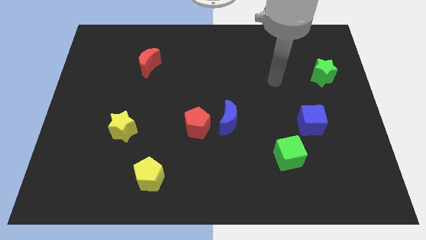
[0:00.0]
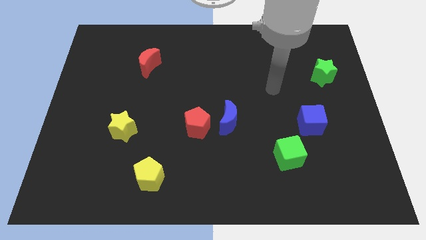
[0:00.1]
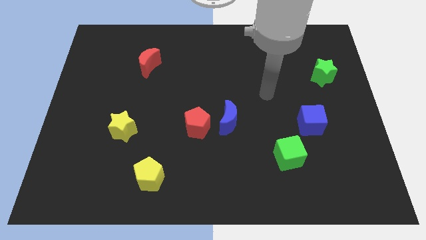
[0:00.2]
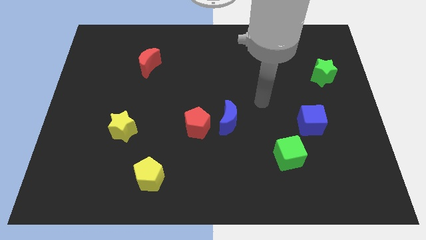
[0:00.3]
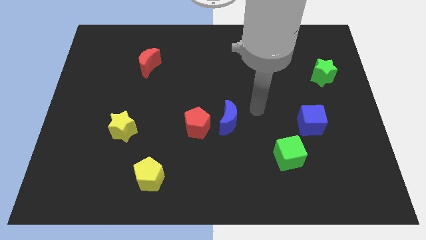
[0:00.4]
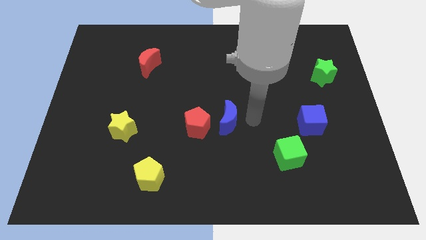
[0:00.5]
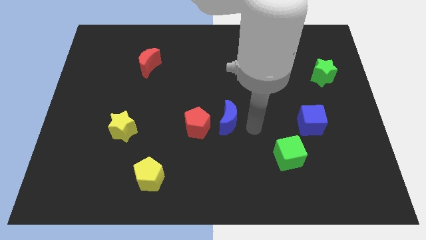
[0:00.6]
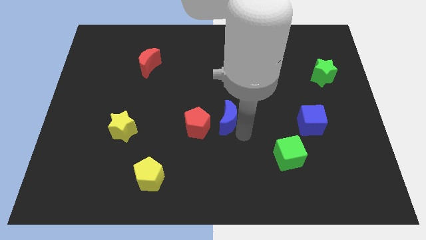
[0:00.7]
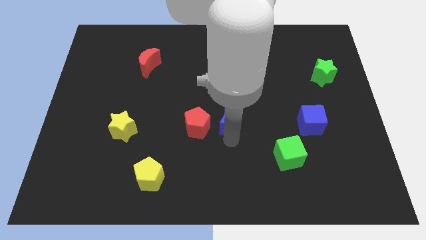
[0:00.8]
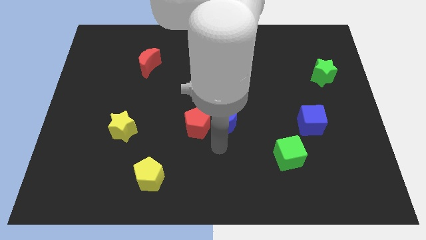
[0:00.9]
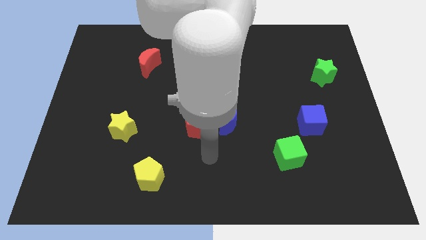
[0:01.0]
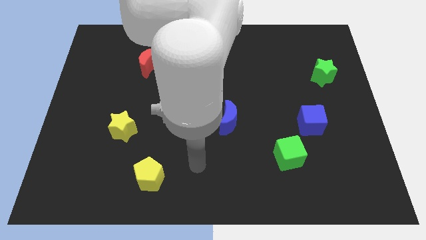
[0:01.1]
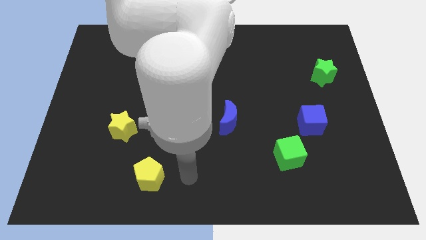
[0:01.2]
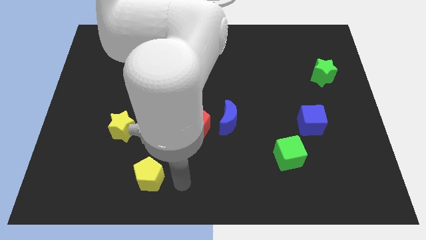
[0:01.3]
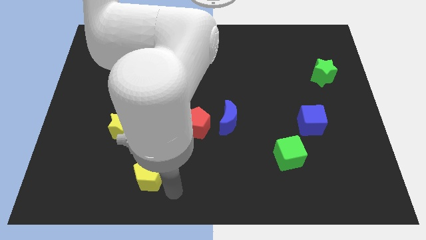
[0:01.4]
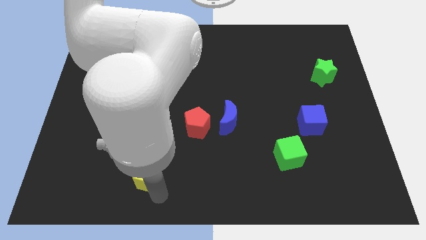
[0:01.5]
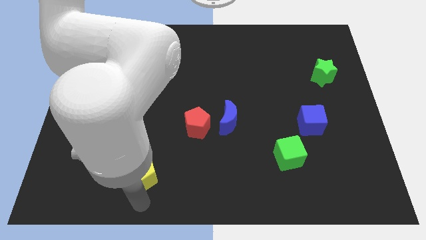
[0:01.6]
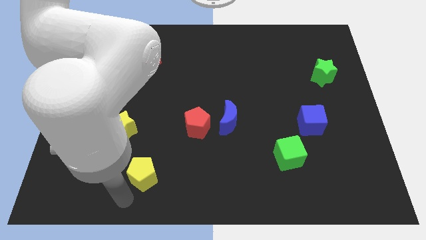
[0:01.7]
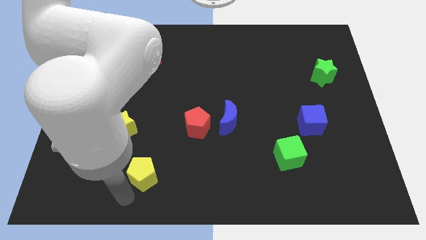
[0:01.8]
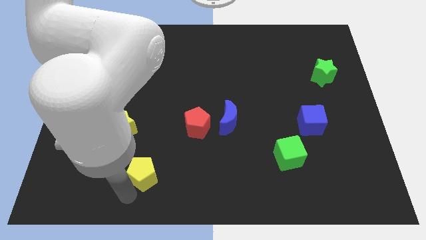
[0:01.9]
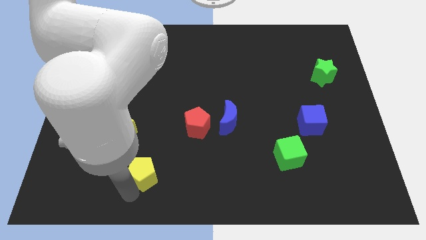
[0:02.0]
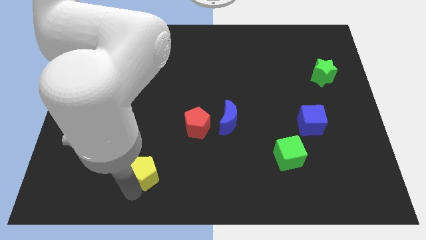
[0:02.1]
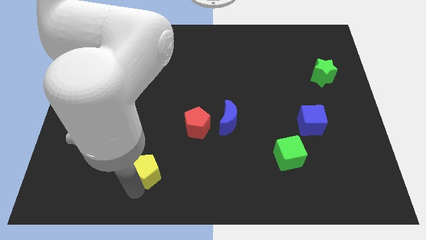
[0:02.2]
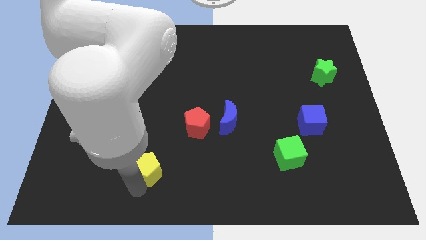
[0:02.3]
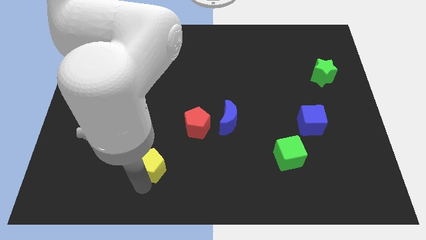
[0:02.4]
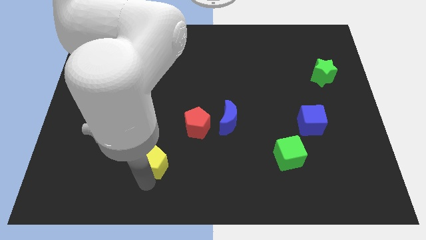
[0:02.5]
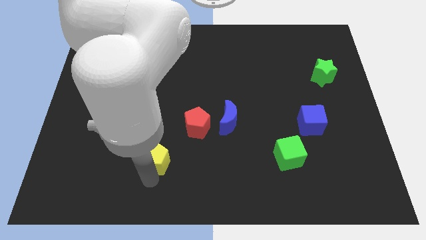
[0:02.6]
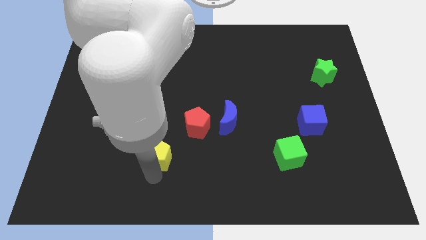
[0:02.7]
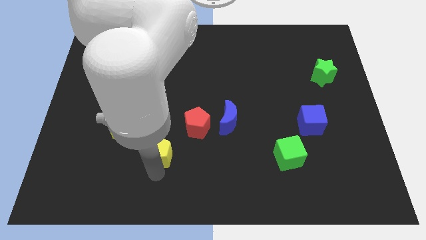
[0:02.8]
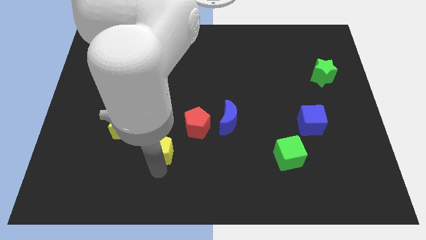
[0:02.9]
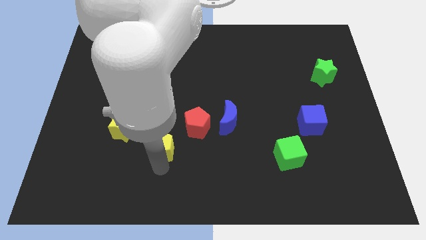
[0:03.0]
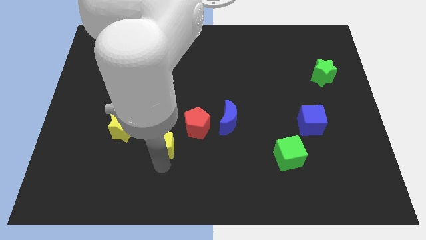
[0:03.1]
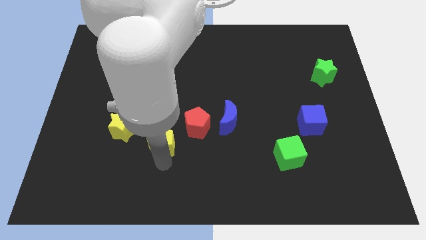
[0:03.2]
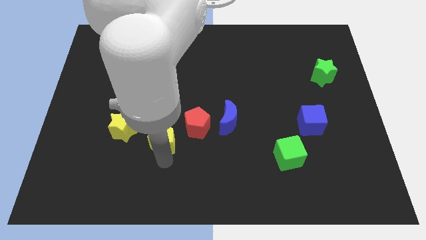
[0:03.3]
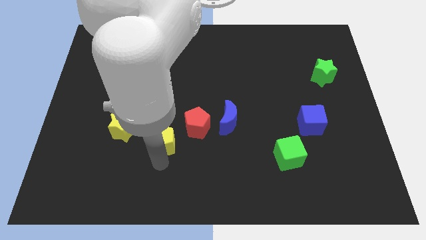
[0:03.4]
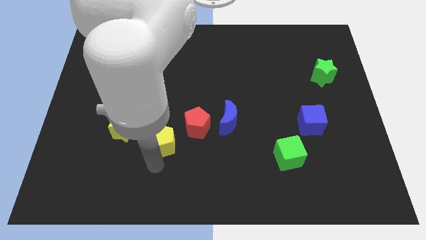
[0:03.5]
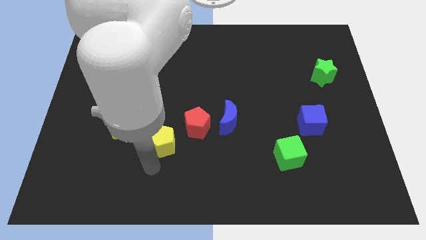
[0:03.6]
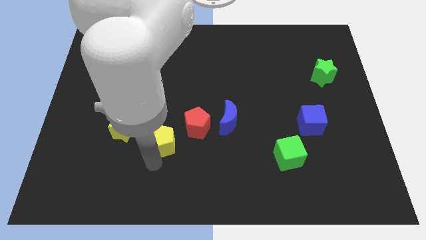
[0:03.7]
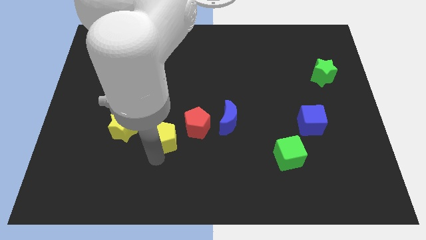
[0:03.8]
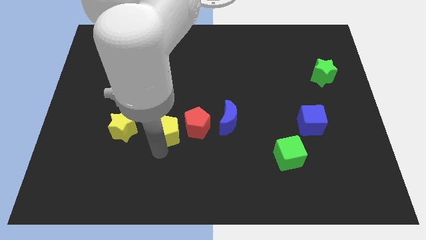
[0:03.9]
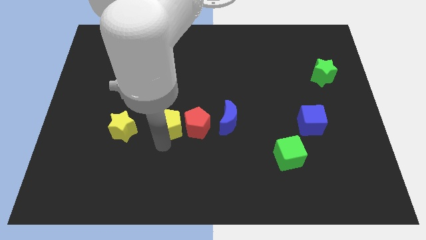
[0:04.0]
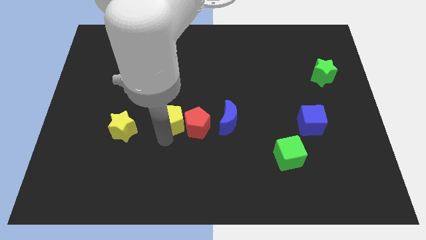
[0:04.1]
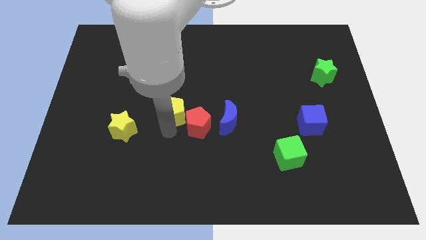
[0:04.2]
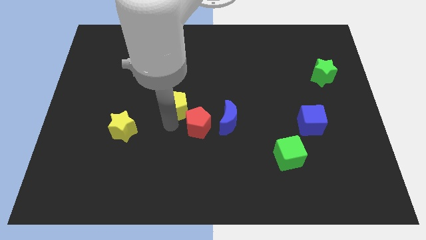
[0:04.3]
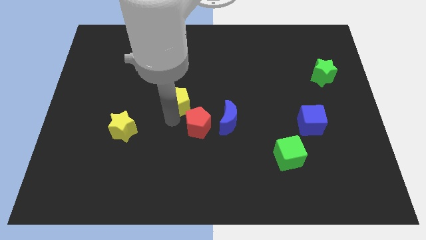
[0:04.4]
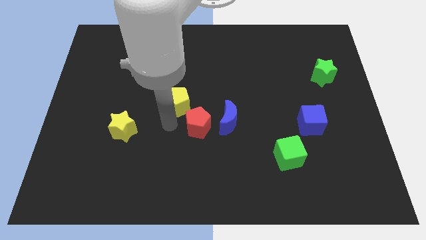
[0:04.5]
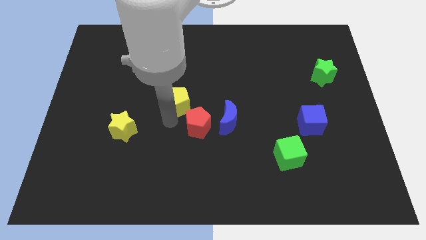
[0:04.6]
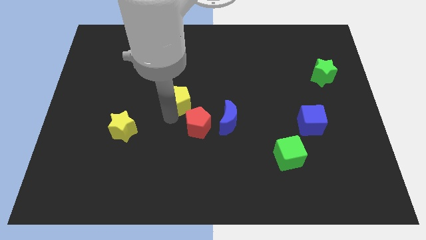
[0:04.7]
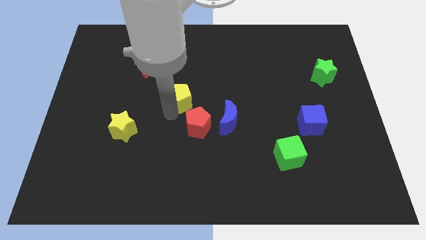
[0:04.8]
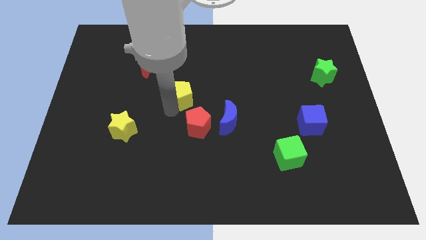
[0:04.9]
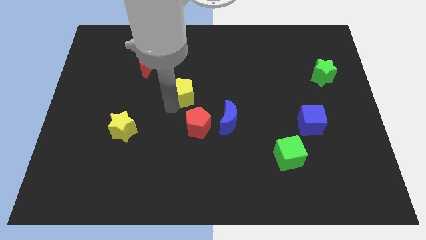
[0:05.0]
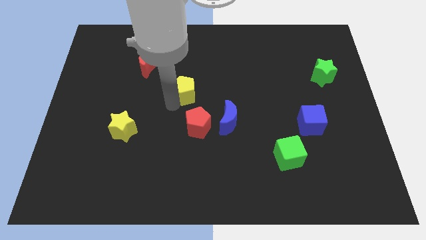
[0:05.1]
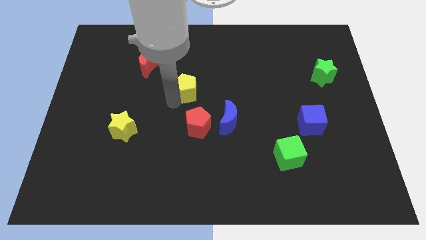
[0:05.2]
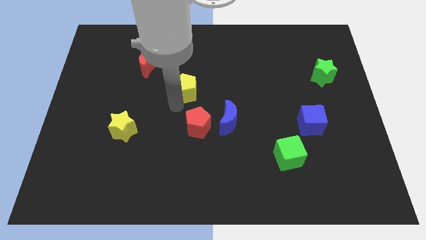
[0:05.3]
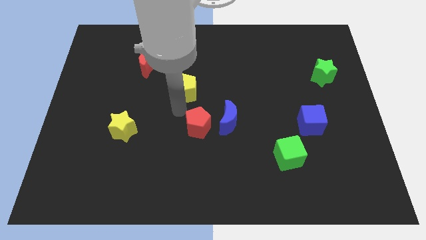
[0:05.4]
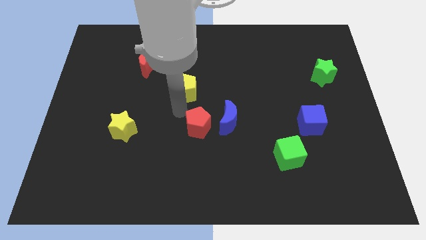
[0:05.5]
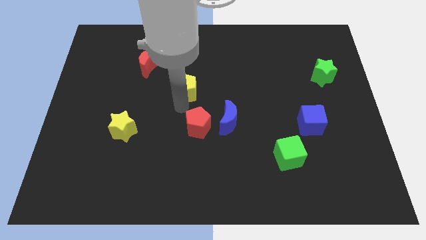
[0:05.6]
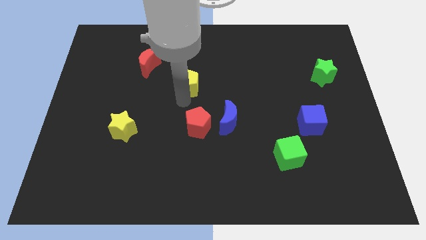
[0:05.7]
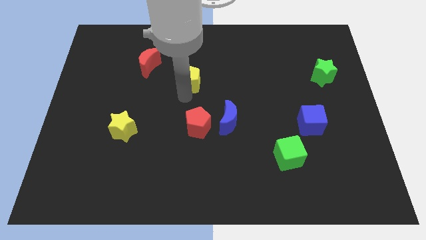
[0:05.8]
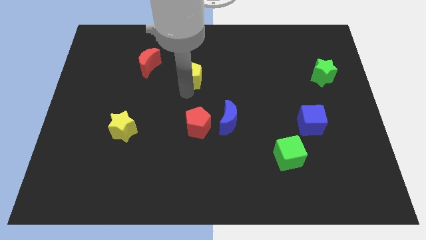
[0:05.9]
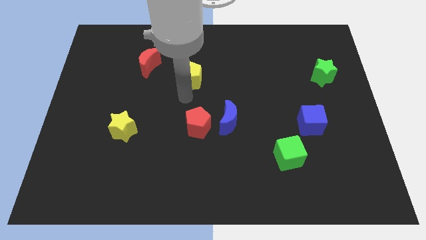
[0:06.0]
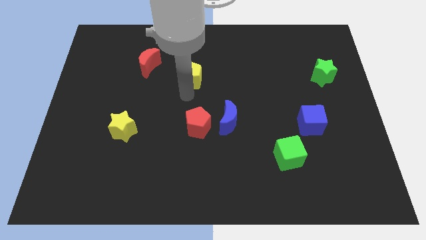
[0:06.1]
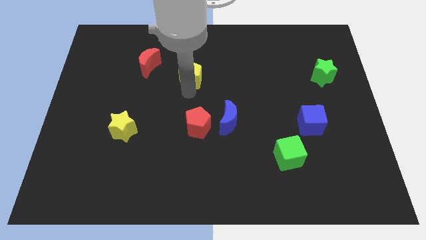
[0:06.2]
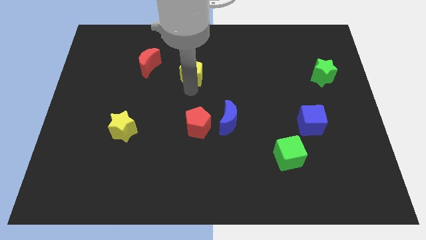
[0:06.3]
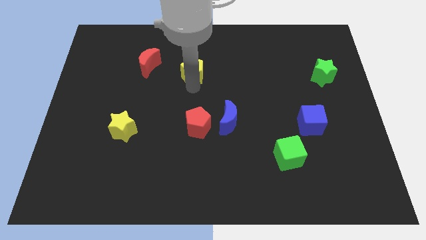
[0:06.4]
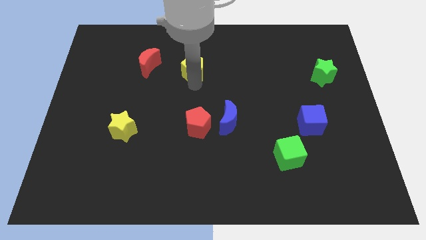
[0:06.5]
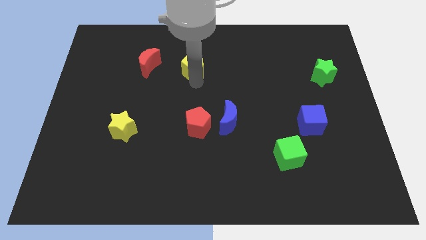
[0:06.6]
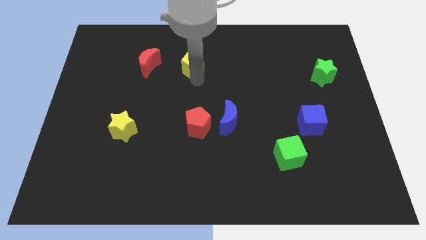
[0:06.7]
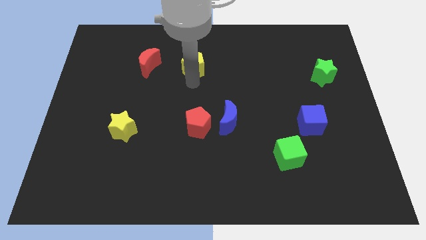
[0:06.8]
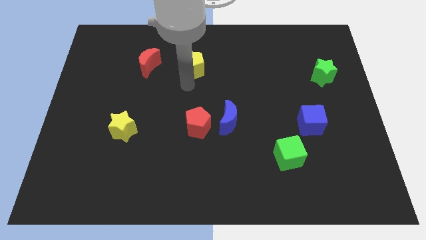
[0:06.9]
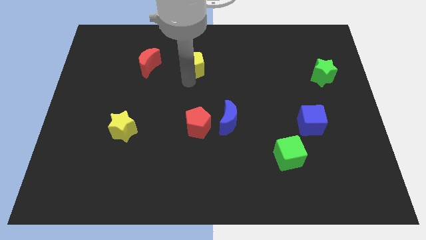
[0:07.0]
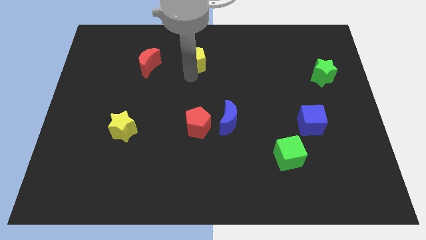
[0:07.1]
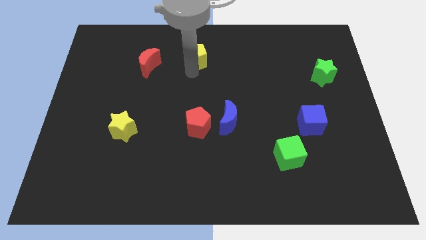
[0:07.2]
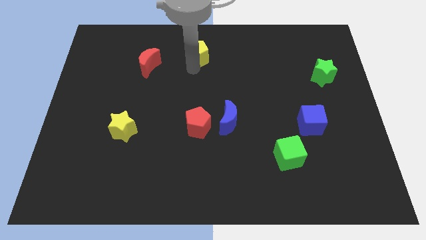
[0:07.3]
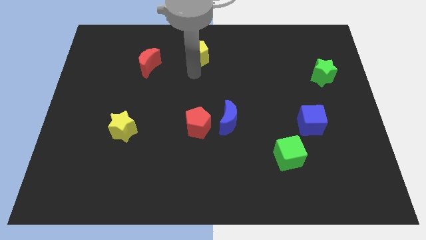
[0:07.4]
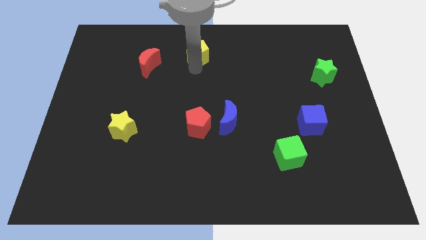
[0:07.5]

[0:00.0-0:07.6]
push the yellow pentagon to the towards your base
